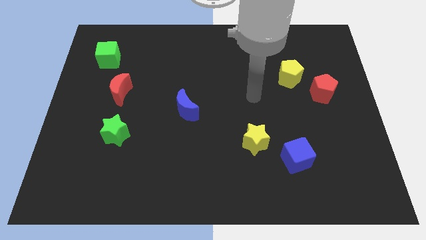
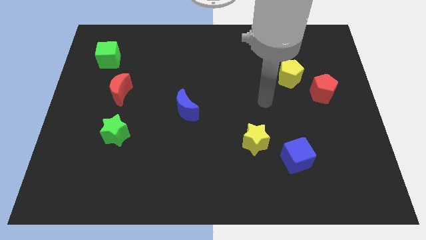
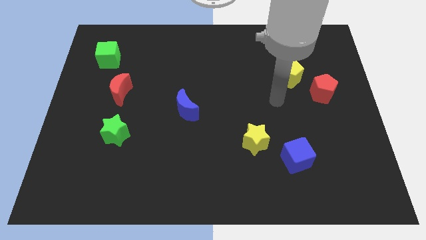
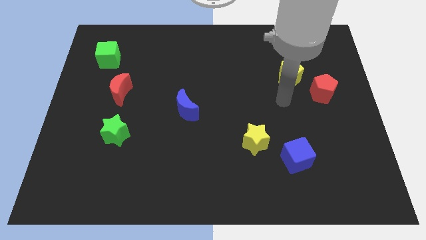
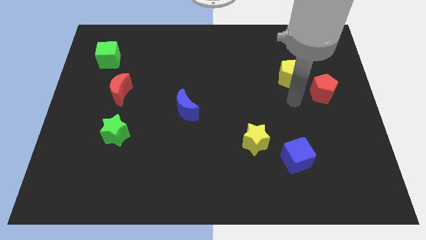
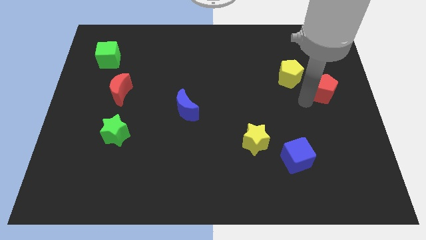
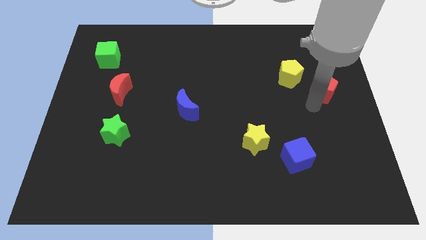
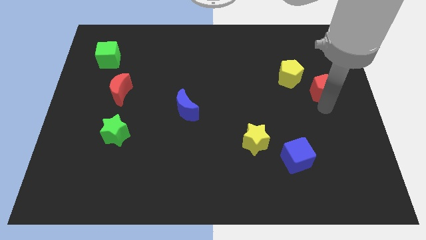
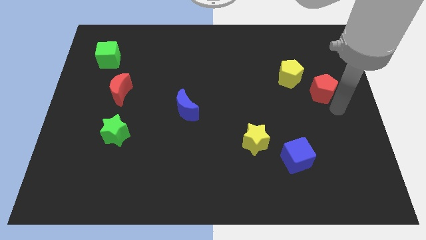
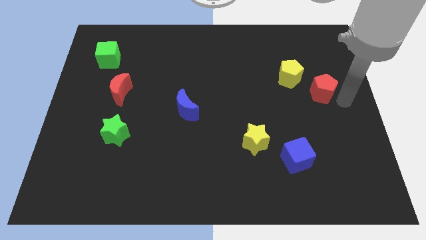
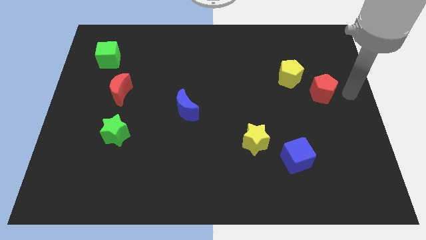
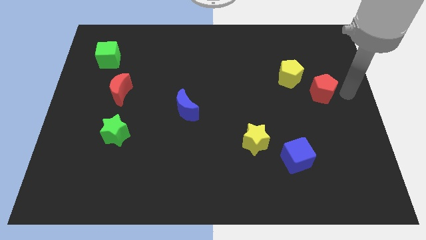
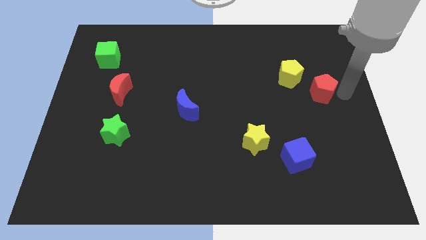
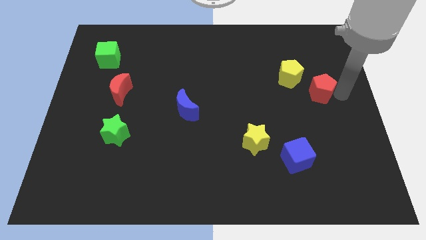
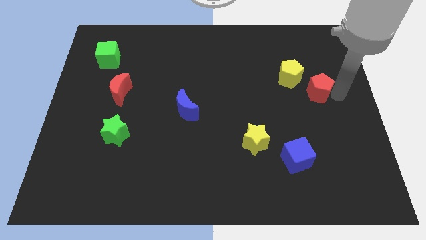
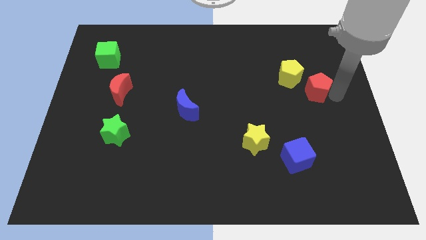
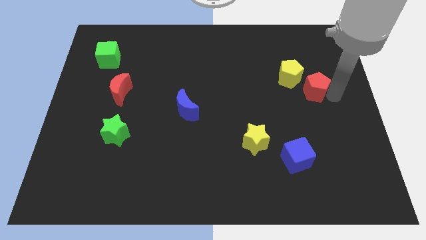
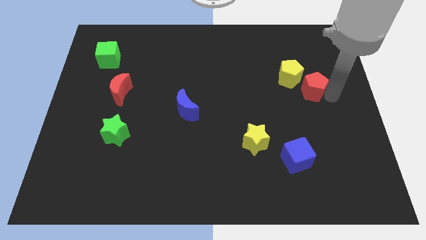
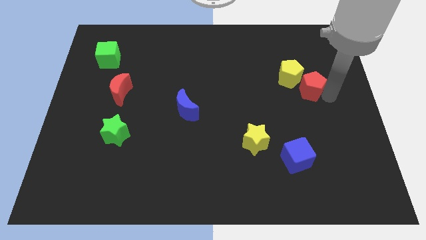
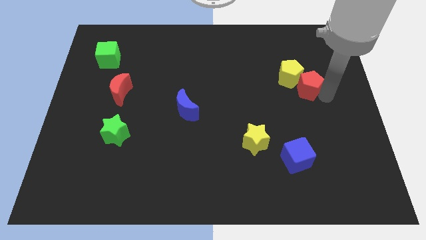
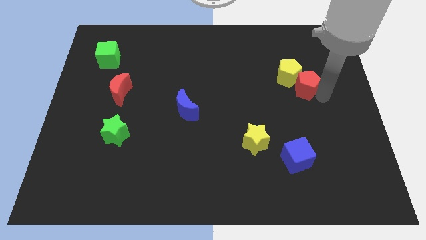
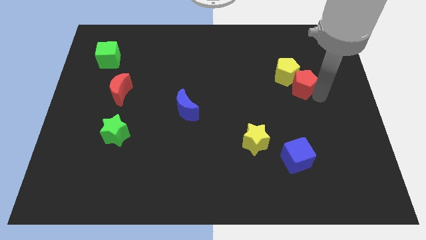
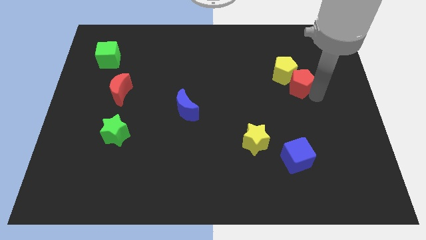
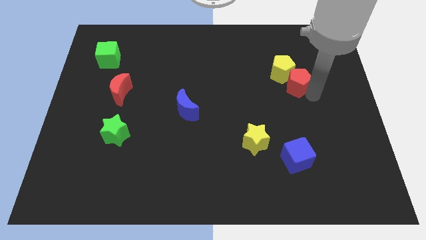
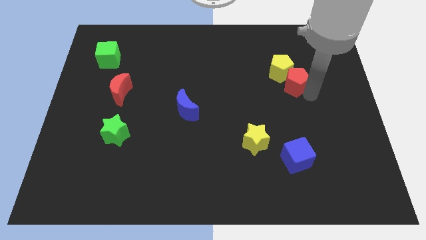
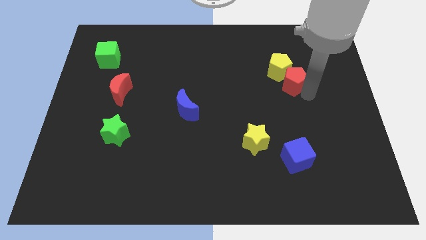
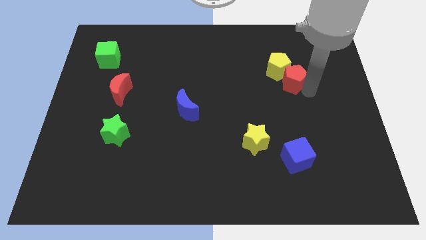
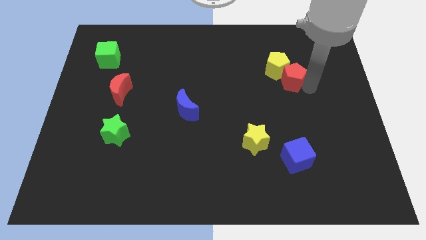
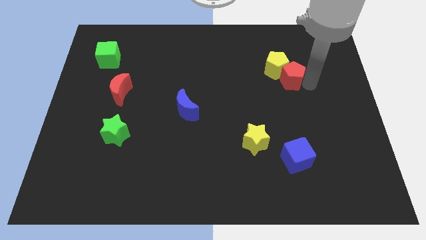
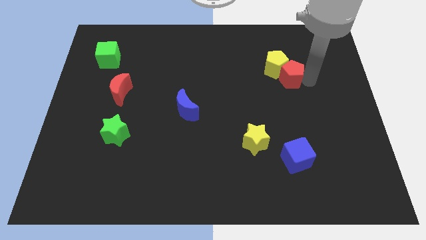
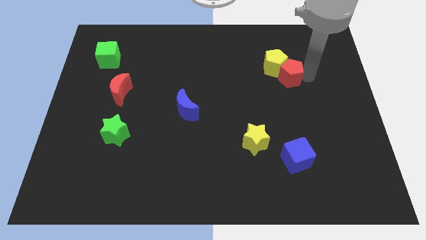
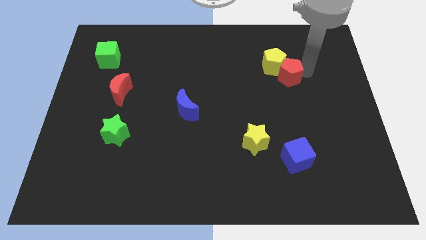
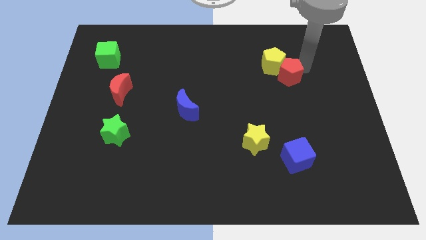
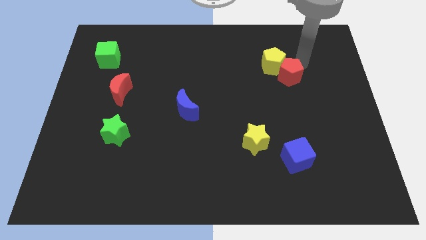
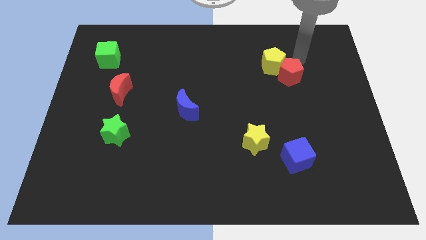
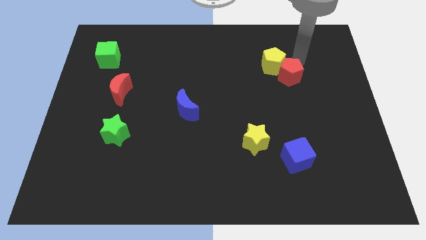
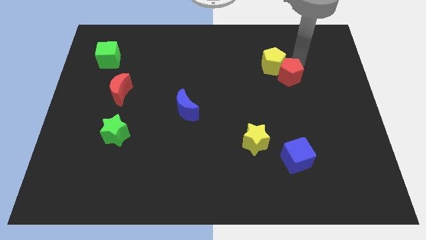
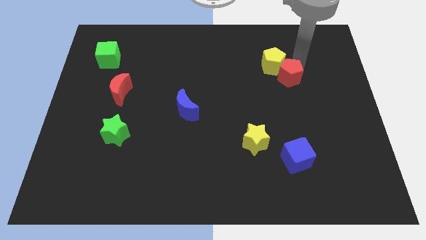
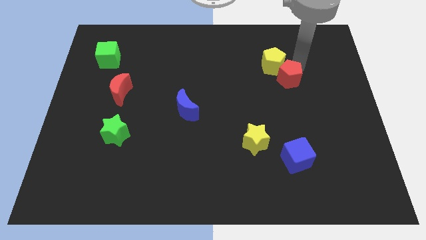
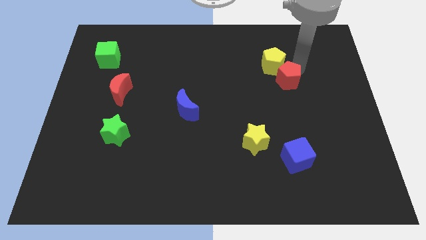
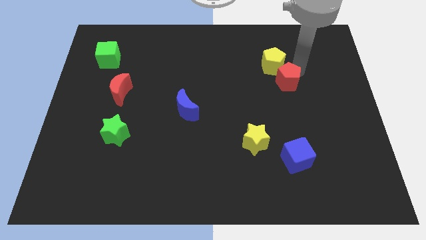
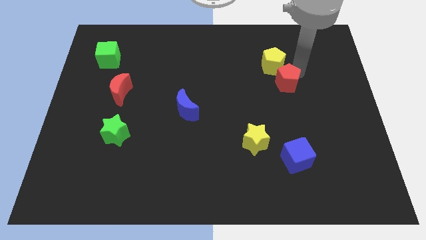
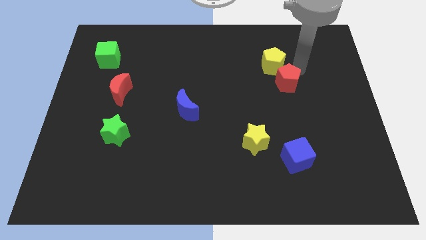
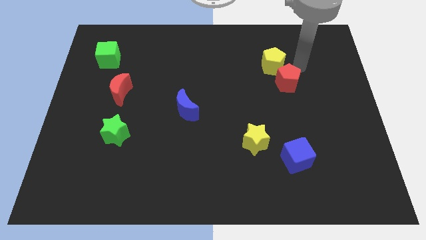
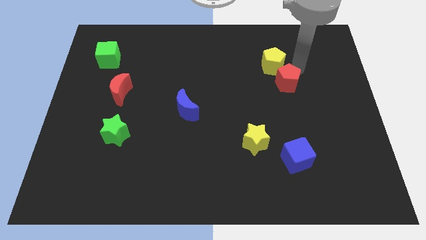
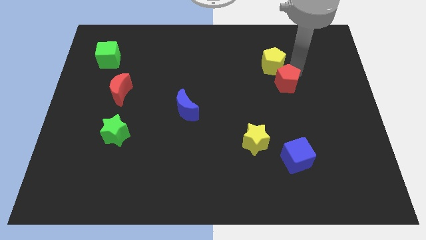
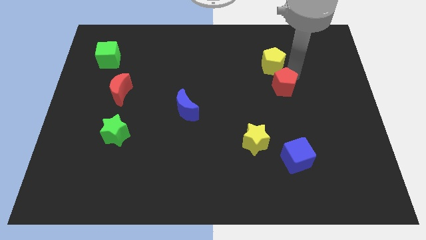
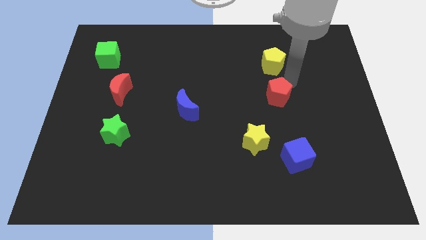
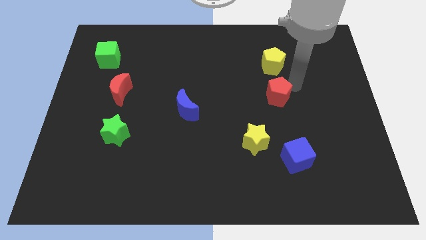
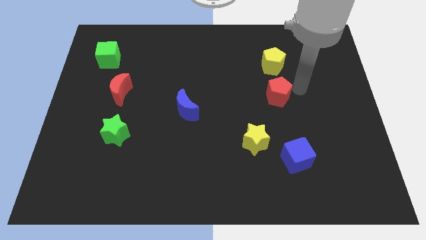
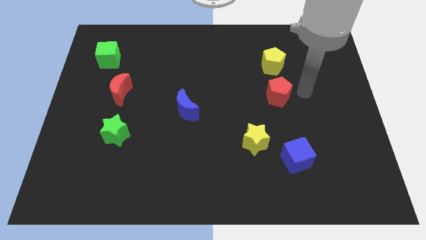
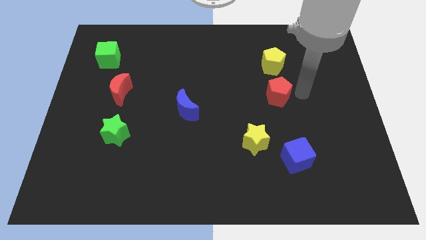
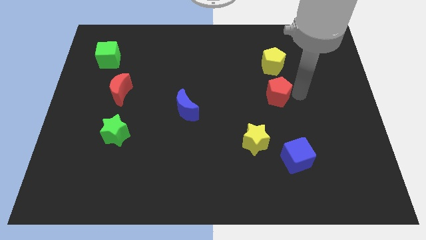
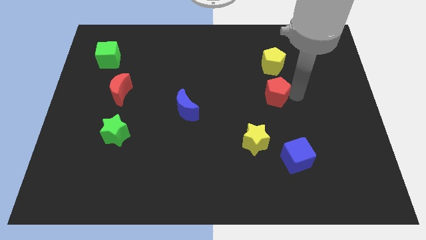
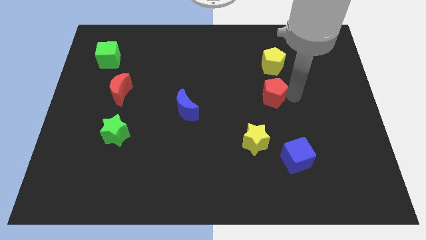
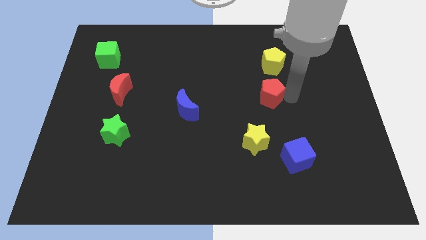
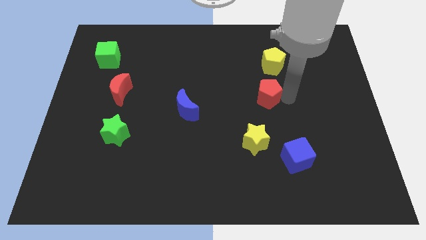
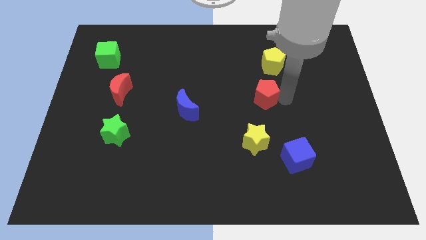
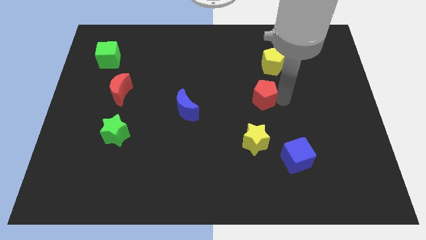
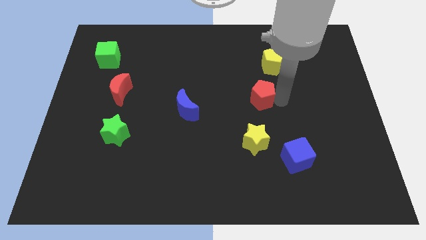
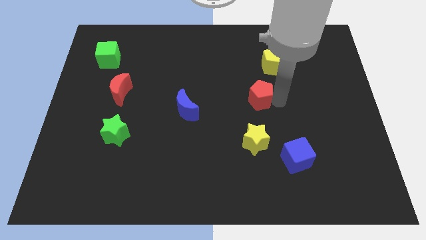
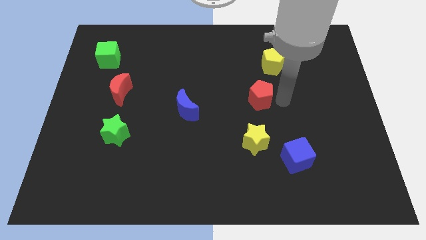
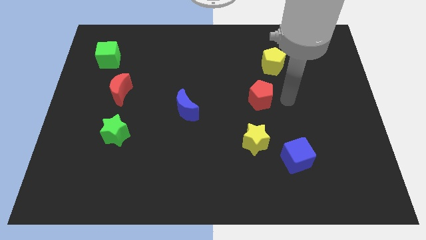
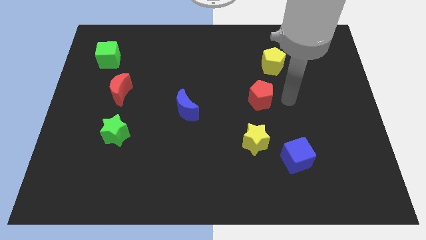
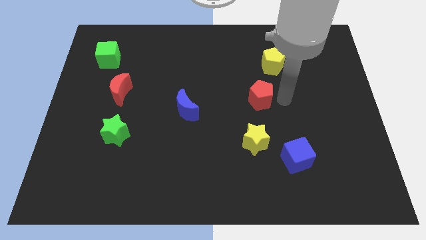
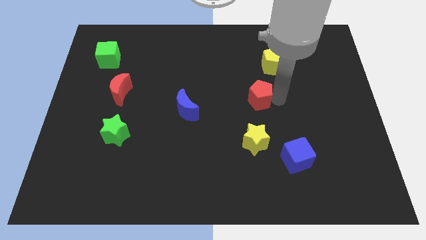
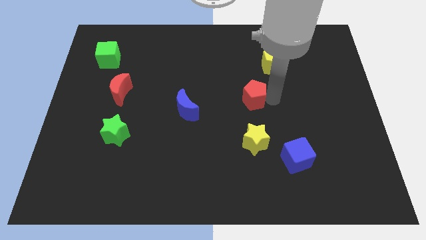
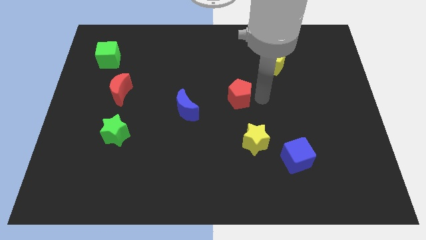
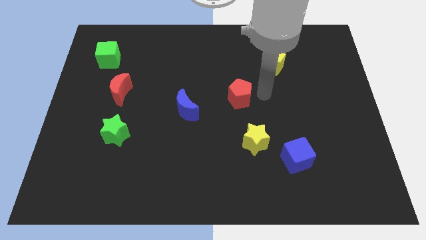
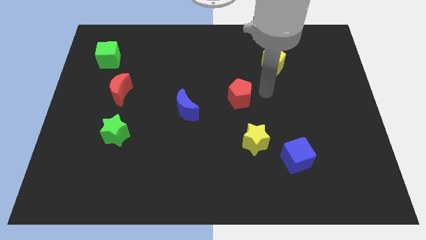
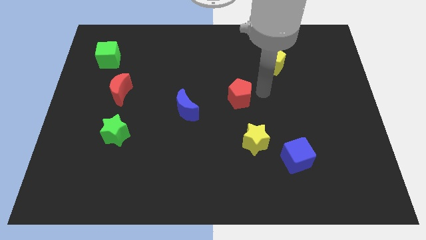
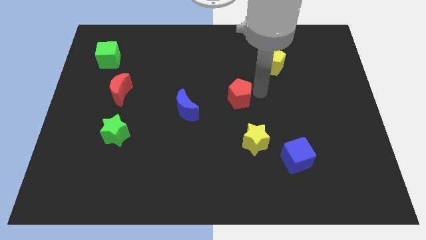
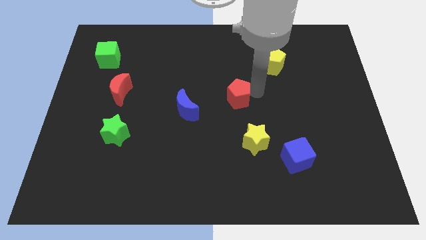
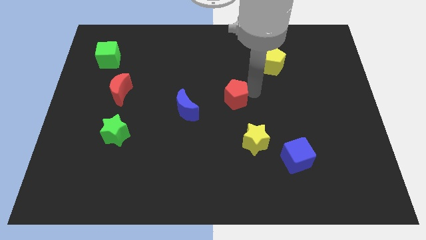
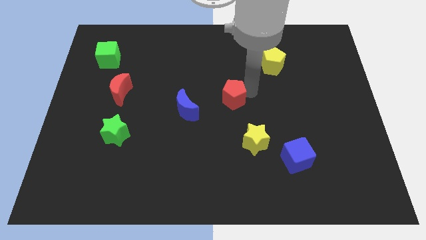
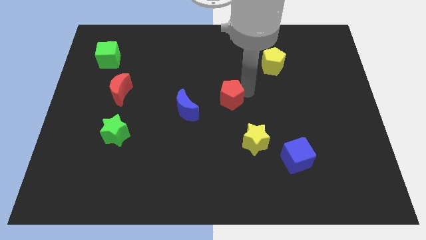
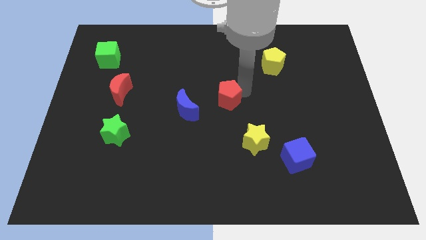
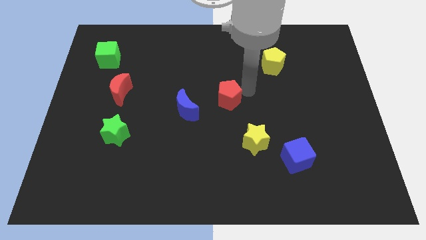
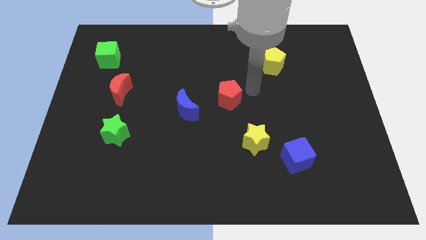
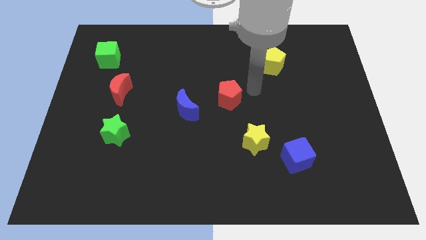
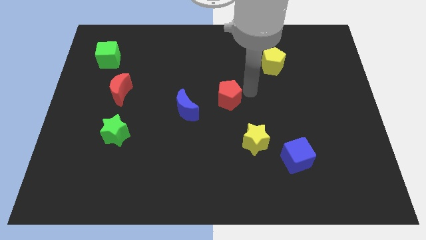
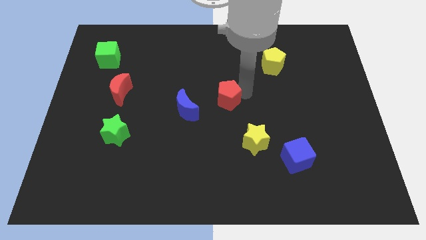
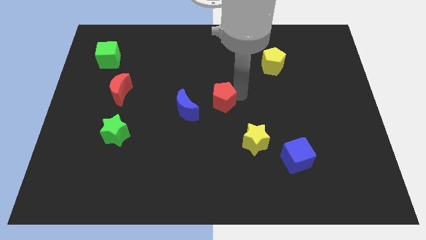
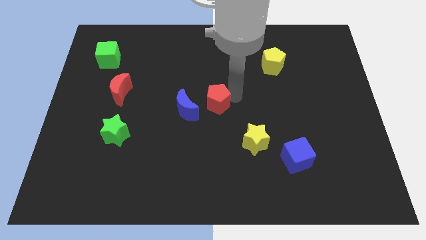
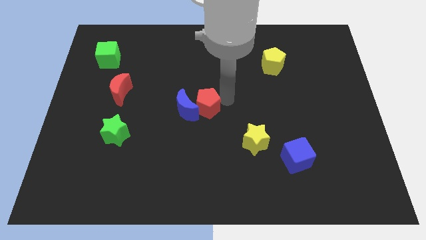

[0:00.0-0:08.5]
move the red pentagon close to the blue moon
